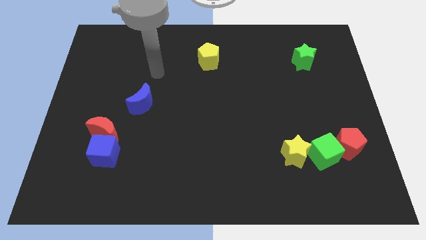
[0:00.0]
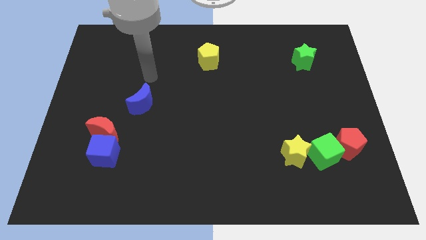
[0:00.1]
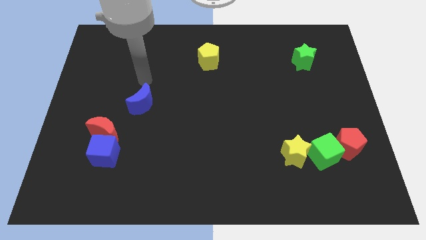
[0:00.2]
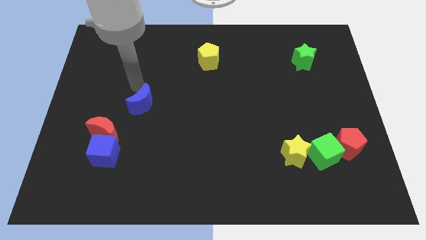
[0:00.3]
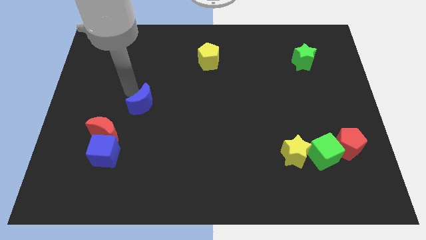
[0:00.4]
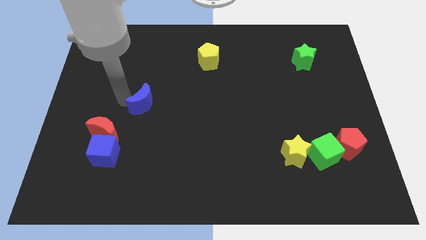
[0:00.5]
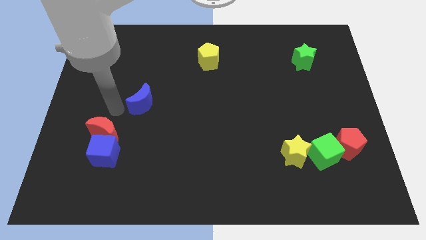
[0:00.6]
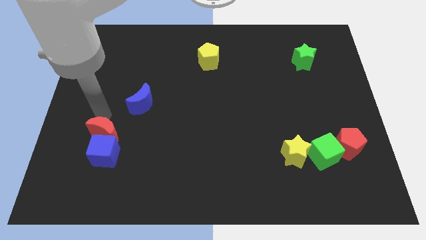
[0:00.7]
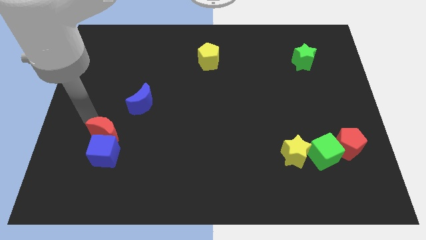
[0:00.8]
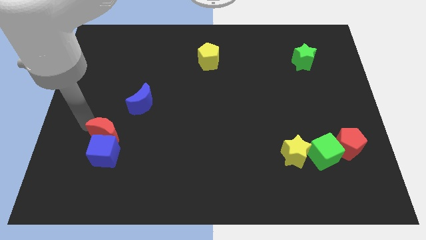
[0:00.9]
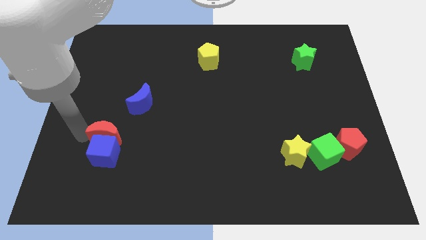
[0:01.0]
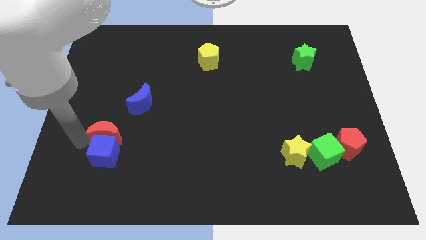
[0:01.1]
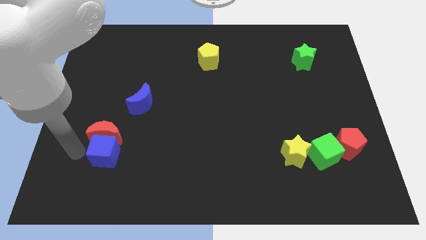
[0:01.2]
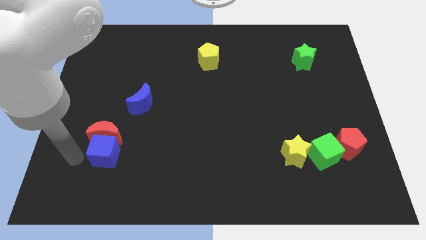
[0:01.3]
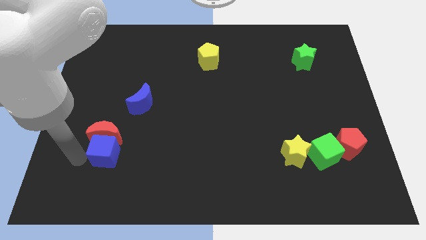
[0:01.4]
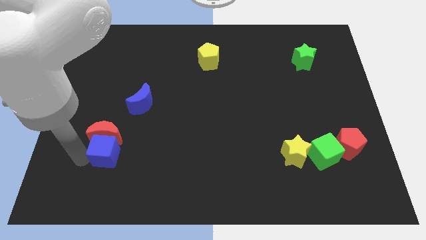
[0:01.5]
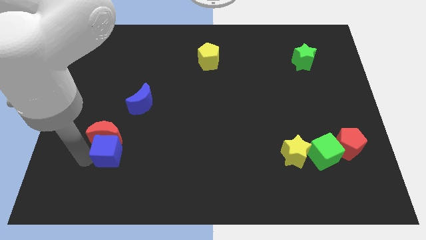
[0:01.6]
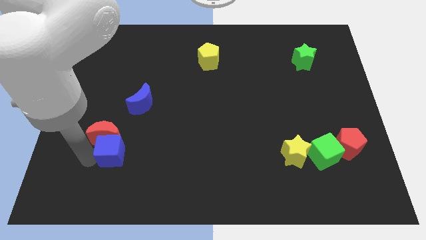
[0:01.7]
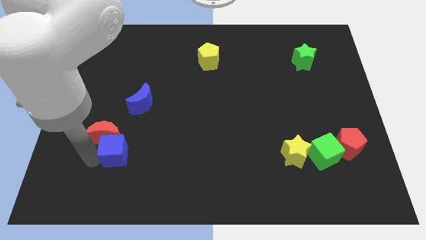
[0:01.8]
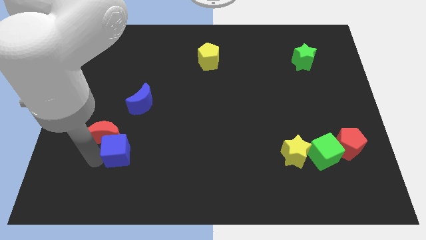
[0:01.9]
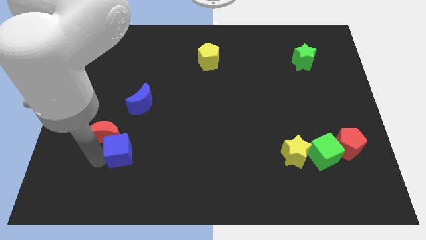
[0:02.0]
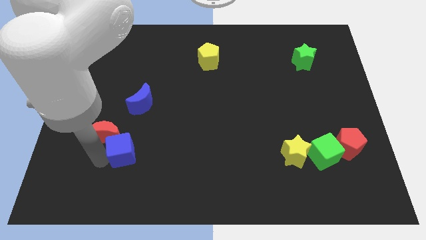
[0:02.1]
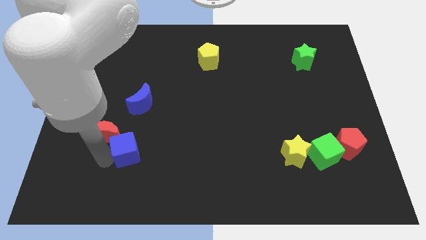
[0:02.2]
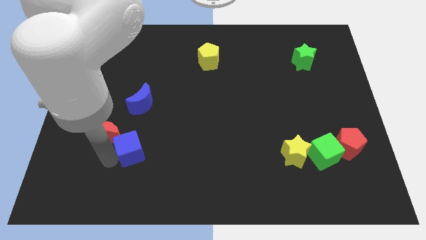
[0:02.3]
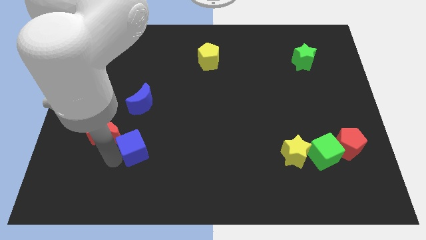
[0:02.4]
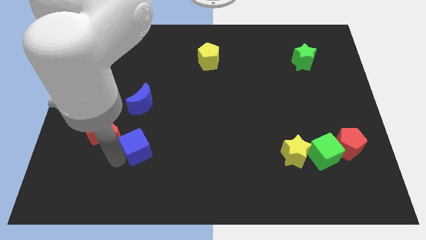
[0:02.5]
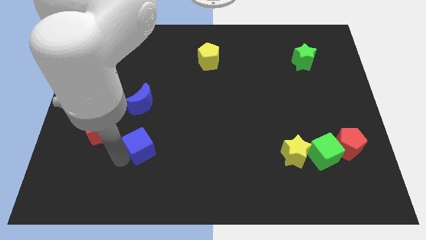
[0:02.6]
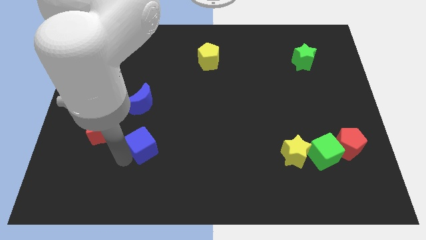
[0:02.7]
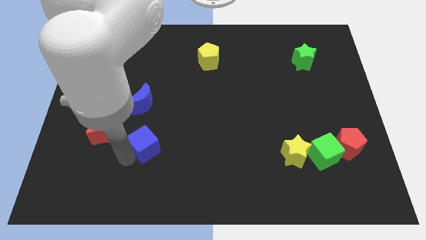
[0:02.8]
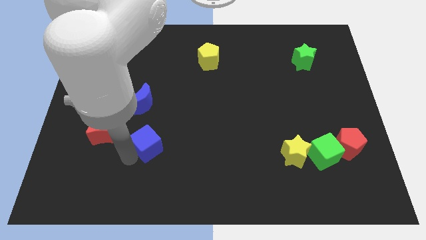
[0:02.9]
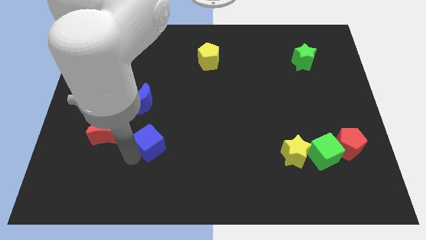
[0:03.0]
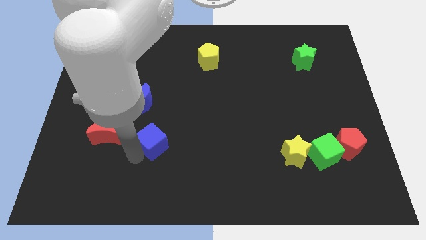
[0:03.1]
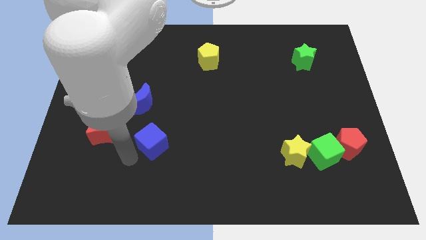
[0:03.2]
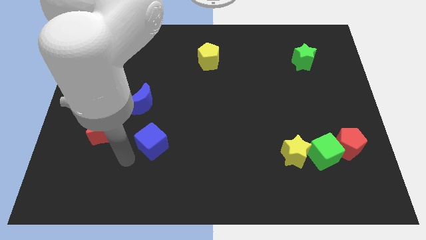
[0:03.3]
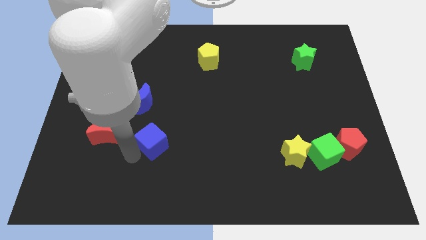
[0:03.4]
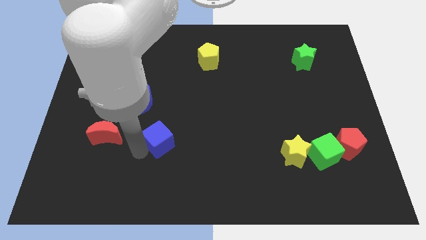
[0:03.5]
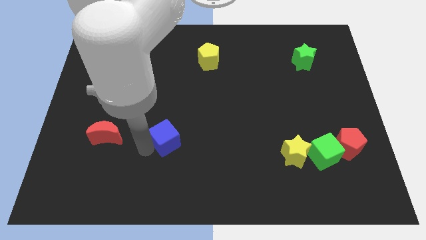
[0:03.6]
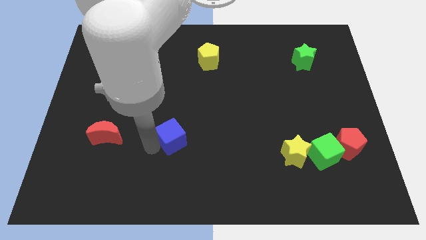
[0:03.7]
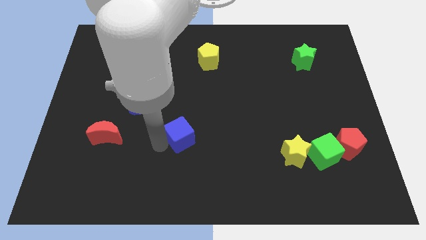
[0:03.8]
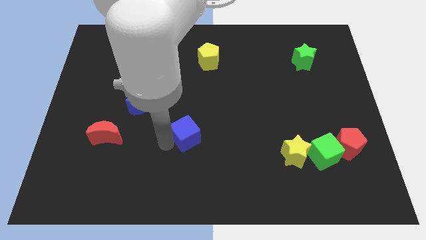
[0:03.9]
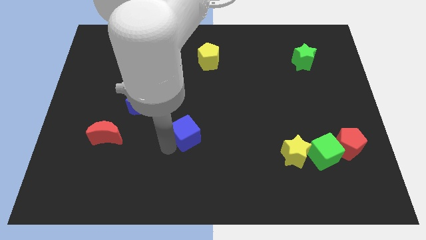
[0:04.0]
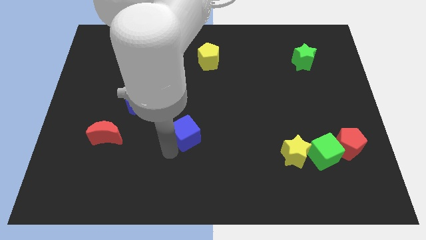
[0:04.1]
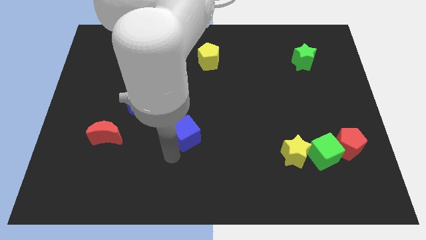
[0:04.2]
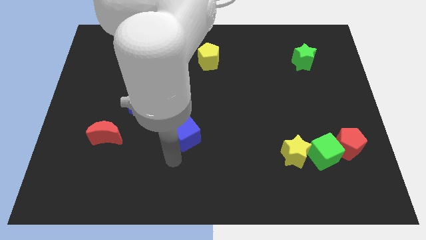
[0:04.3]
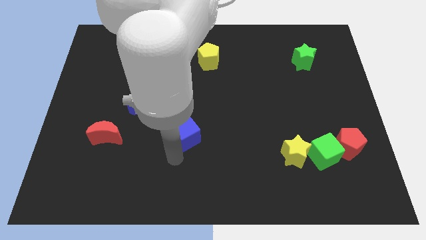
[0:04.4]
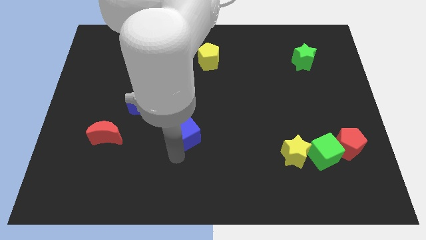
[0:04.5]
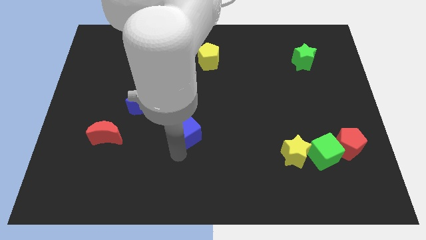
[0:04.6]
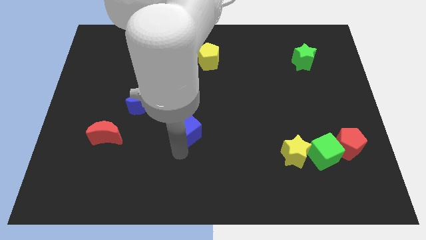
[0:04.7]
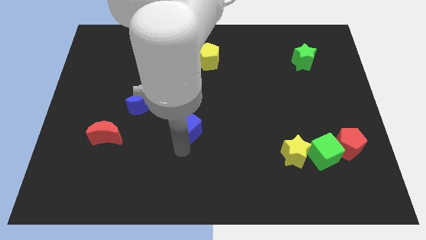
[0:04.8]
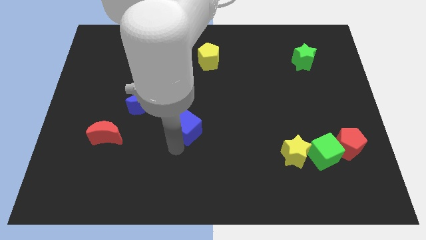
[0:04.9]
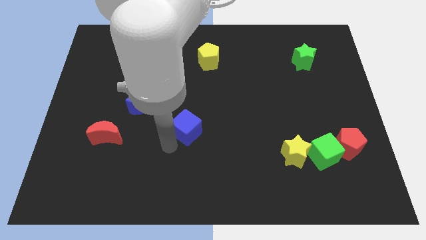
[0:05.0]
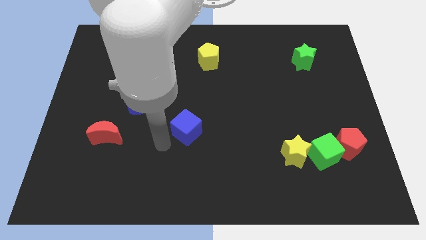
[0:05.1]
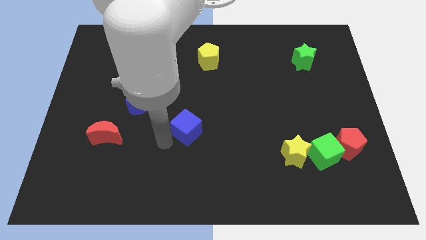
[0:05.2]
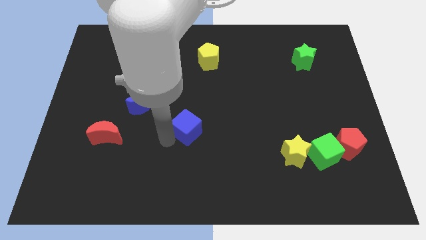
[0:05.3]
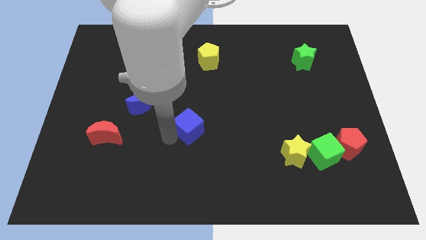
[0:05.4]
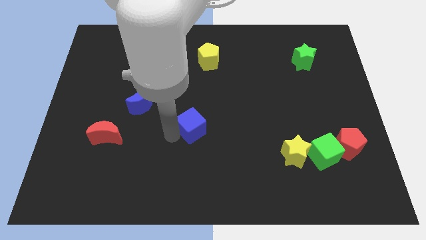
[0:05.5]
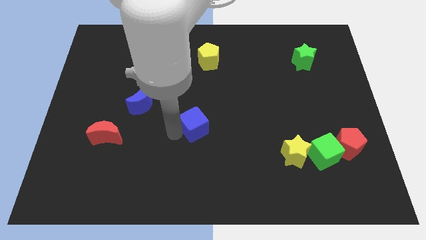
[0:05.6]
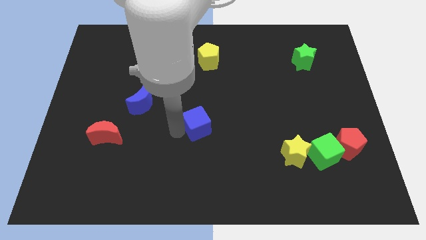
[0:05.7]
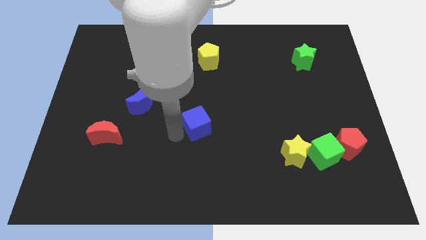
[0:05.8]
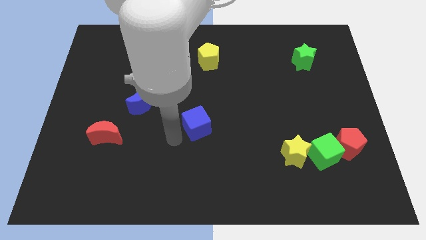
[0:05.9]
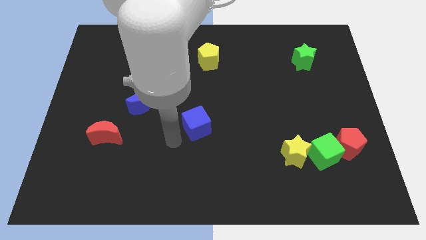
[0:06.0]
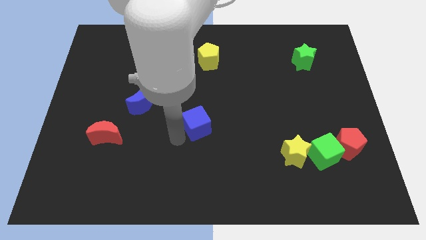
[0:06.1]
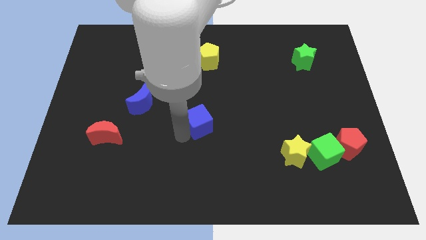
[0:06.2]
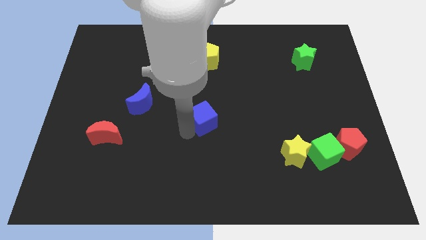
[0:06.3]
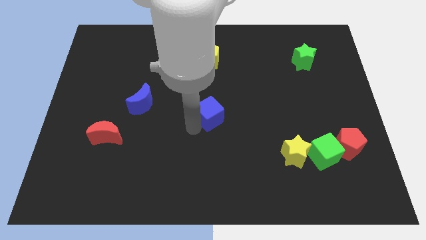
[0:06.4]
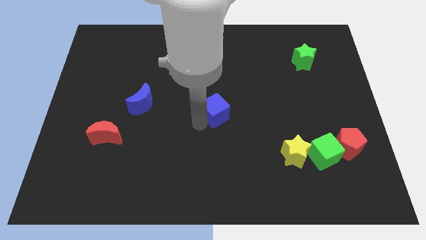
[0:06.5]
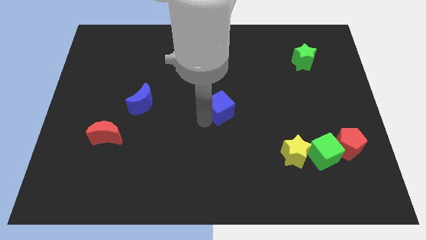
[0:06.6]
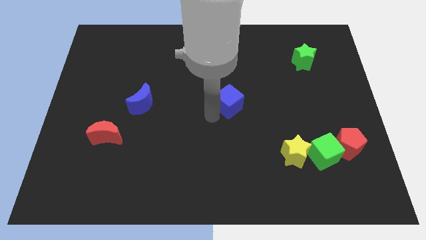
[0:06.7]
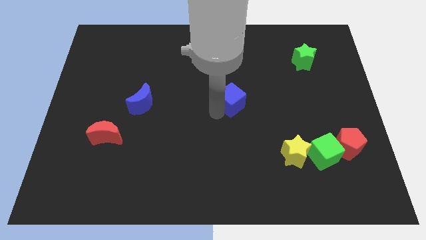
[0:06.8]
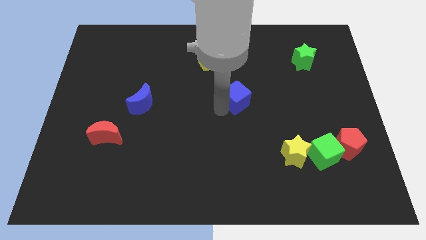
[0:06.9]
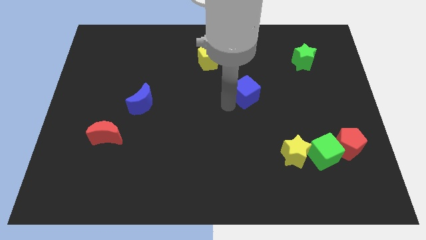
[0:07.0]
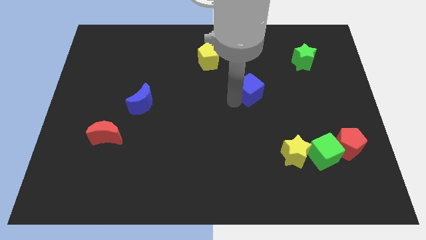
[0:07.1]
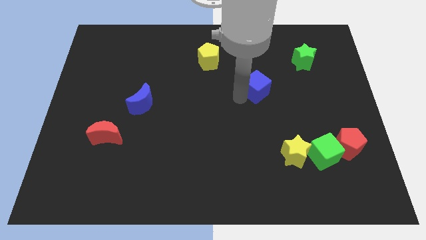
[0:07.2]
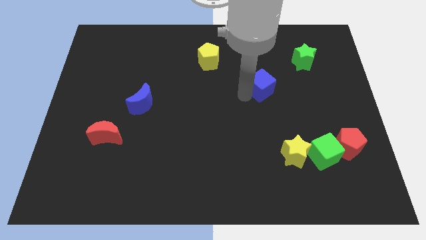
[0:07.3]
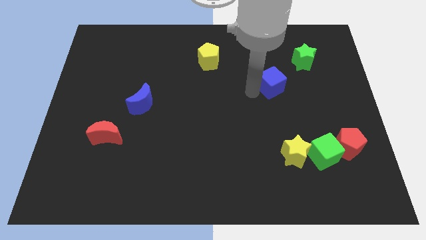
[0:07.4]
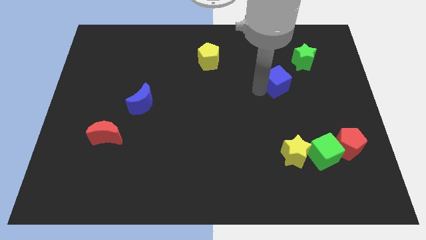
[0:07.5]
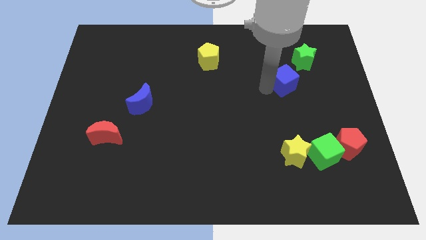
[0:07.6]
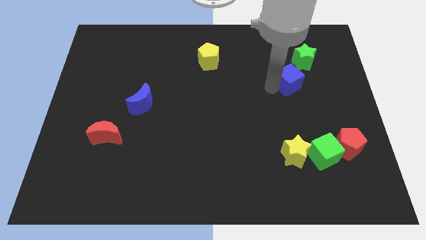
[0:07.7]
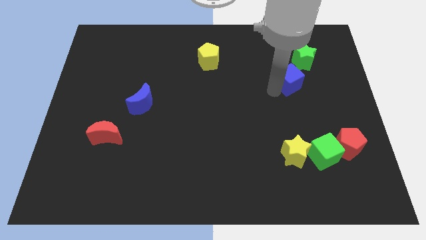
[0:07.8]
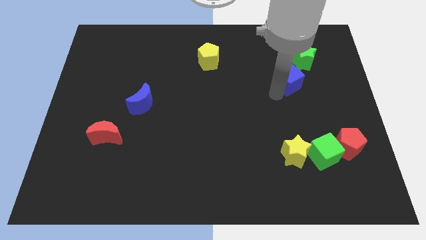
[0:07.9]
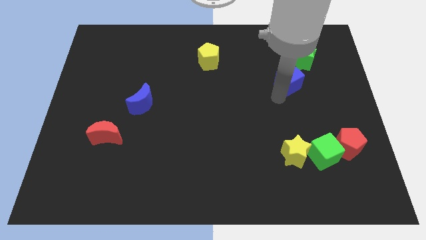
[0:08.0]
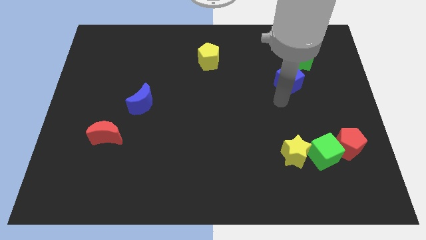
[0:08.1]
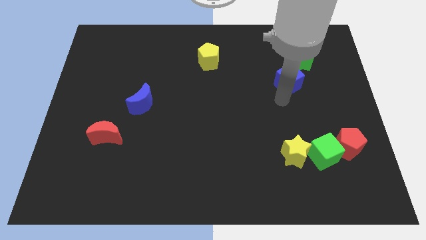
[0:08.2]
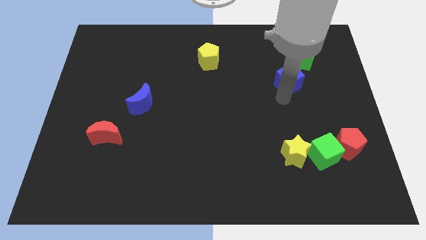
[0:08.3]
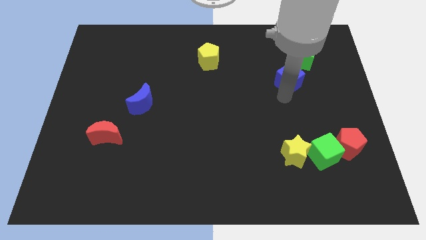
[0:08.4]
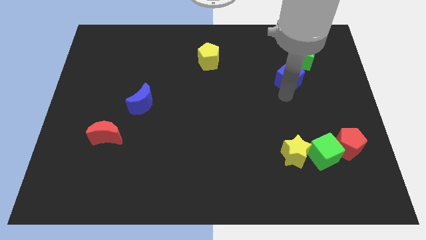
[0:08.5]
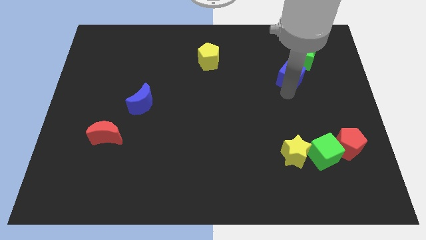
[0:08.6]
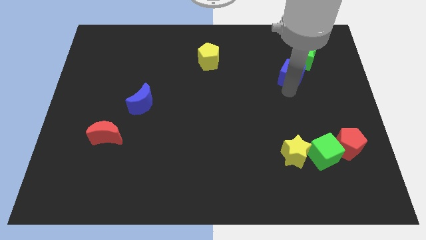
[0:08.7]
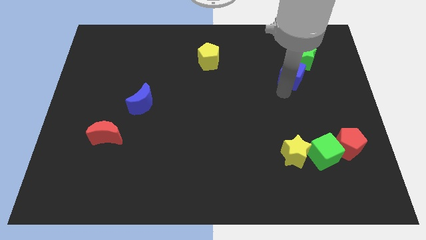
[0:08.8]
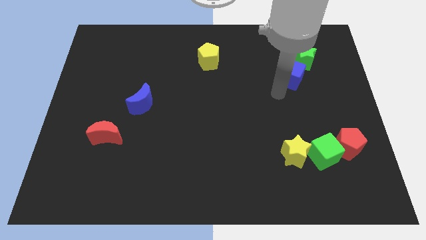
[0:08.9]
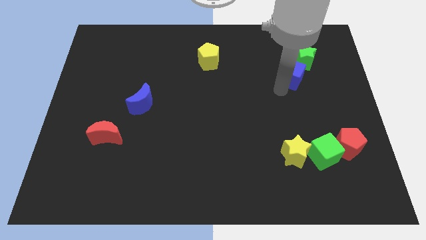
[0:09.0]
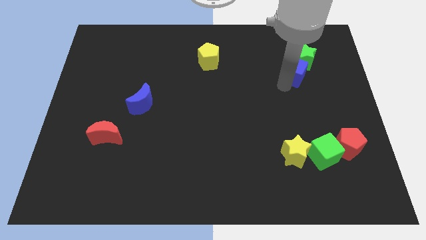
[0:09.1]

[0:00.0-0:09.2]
put the blue cube next to the green star
